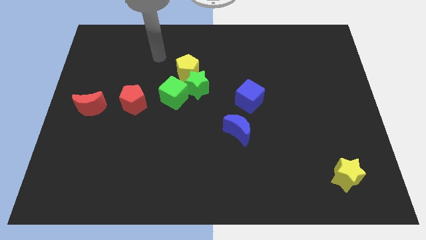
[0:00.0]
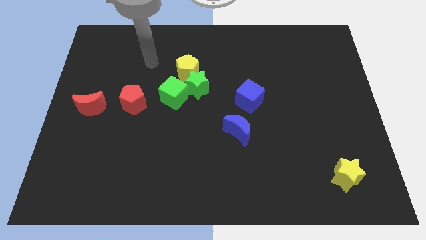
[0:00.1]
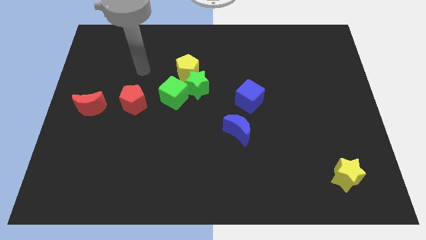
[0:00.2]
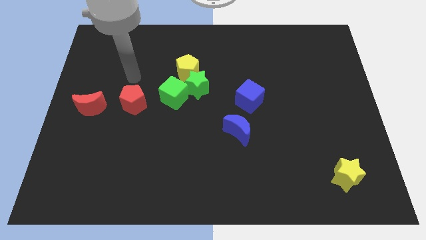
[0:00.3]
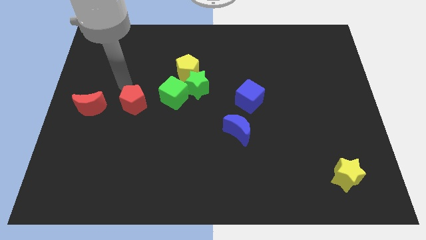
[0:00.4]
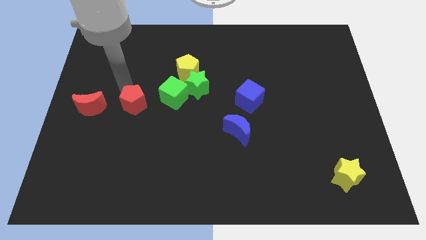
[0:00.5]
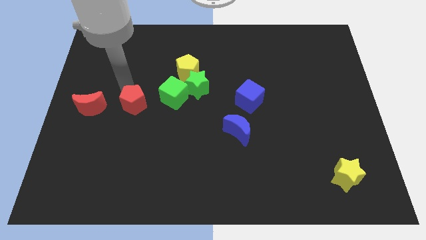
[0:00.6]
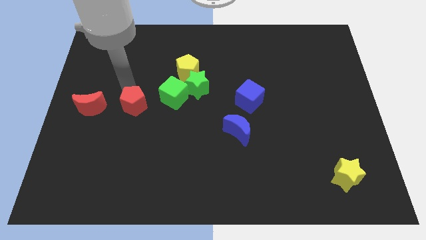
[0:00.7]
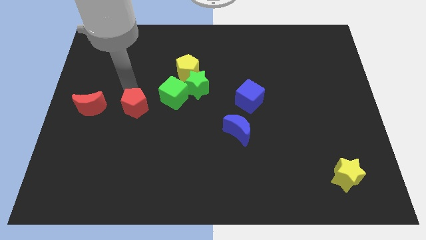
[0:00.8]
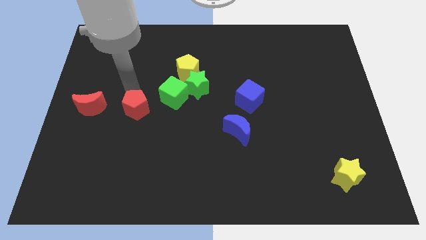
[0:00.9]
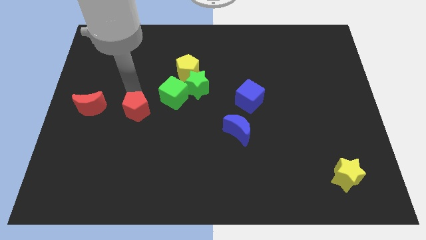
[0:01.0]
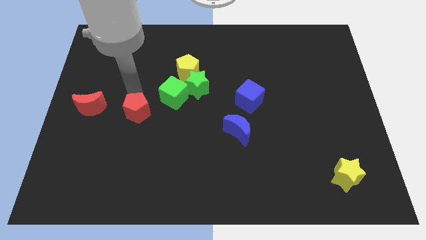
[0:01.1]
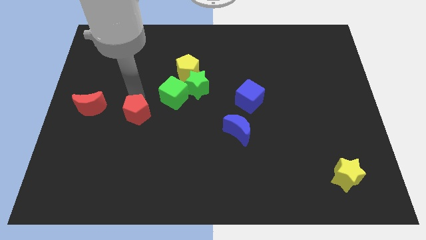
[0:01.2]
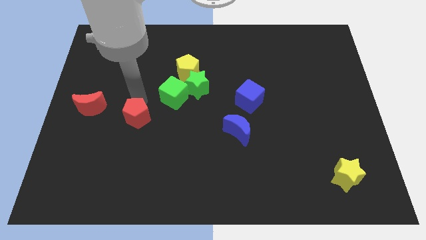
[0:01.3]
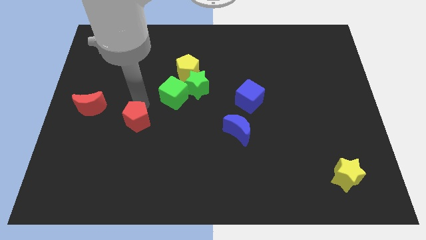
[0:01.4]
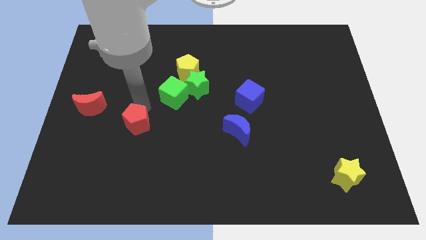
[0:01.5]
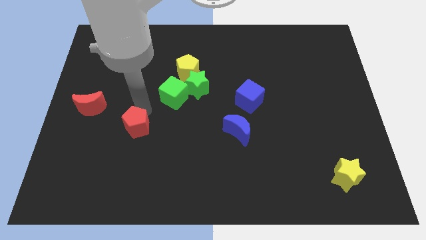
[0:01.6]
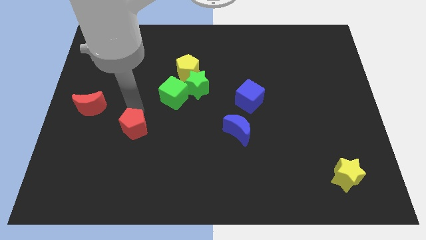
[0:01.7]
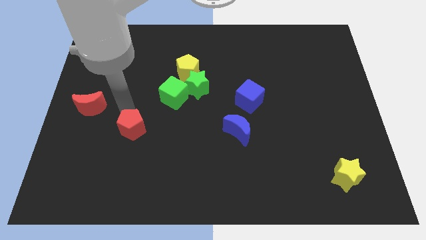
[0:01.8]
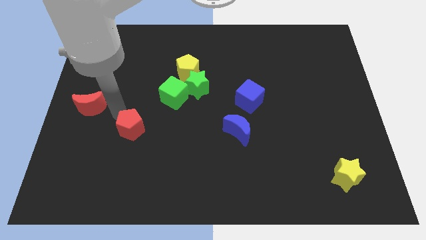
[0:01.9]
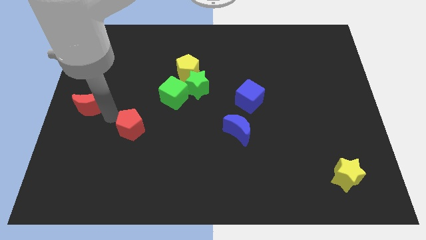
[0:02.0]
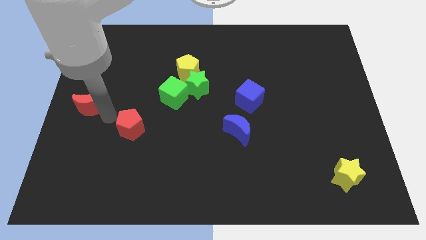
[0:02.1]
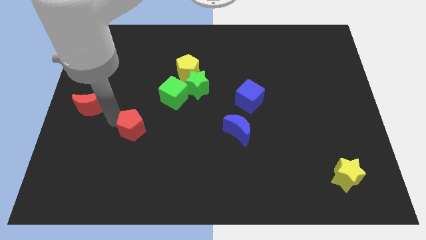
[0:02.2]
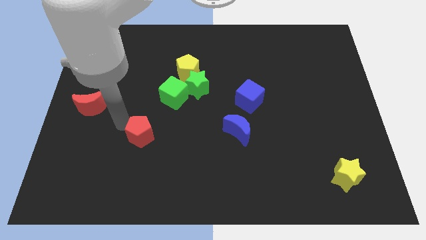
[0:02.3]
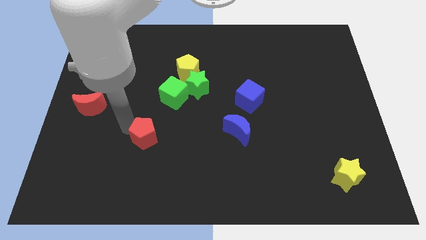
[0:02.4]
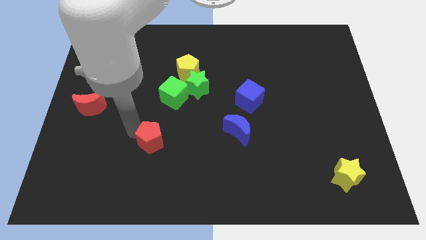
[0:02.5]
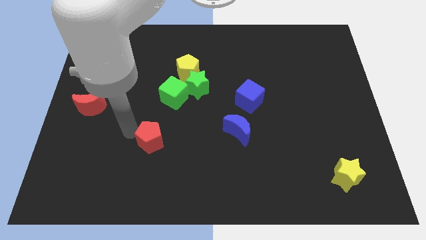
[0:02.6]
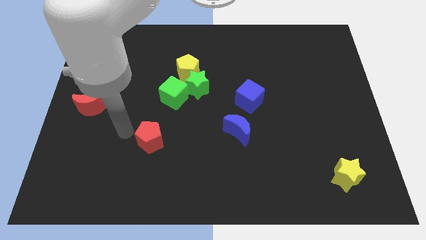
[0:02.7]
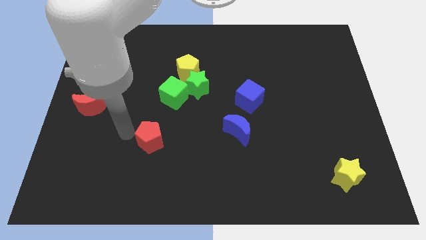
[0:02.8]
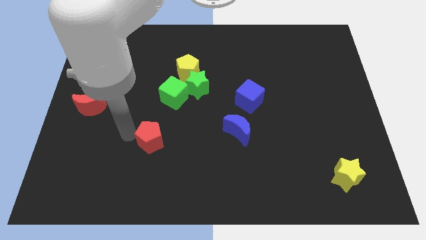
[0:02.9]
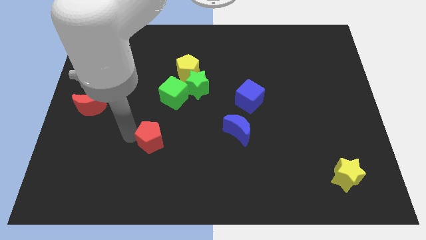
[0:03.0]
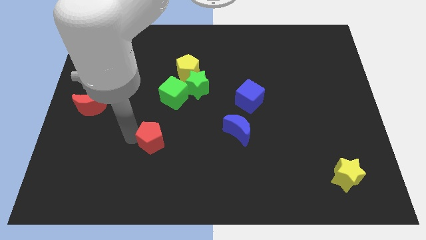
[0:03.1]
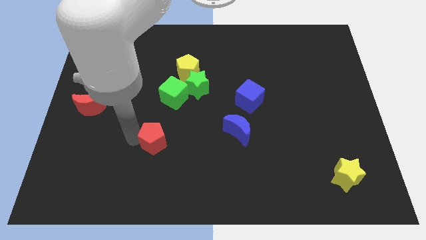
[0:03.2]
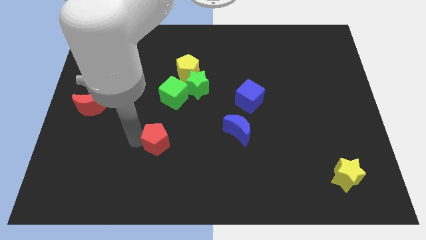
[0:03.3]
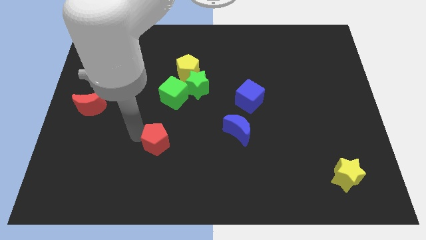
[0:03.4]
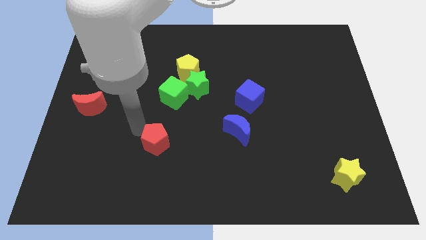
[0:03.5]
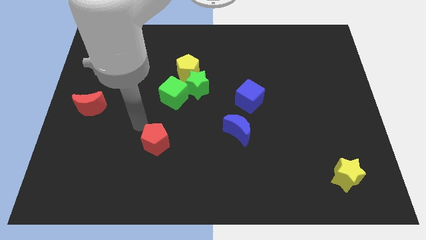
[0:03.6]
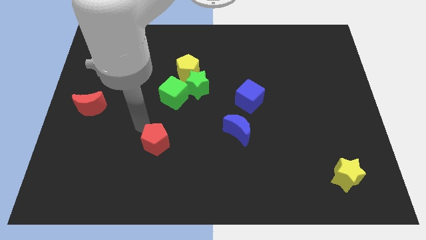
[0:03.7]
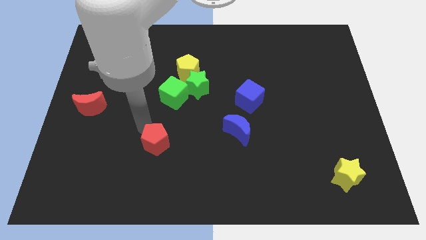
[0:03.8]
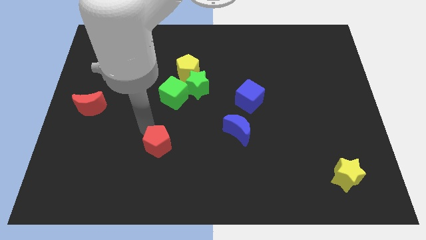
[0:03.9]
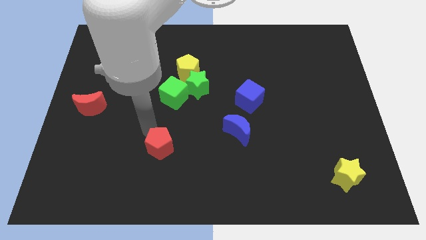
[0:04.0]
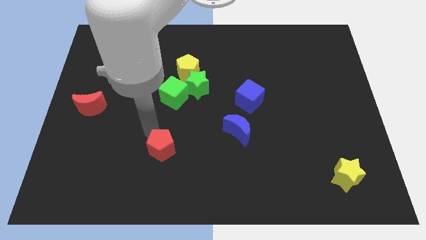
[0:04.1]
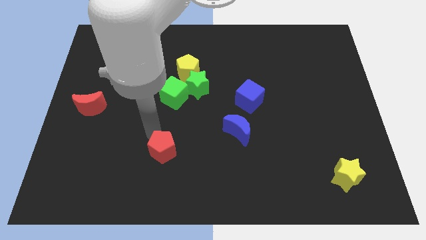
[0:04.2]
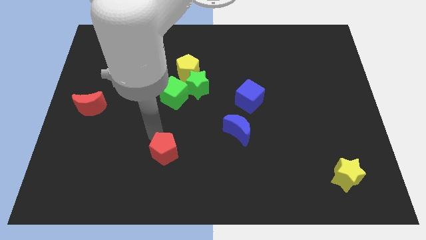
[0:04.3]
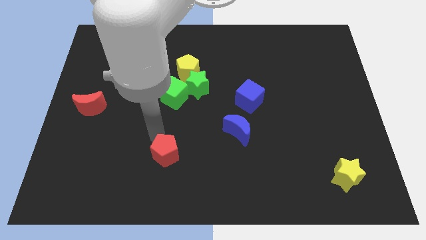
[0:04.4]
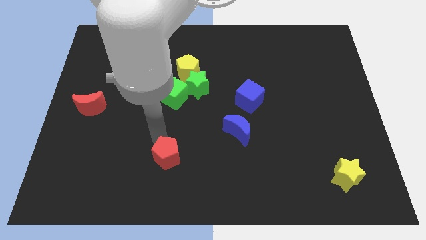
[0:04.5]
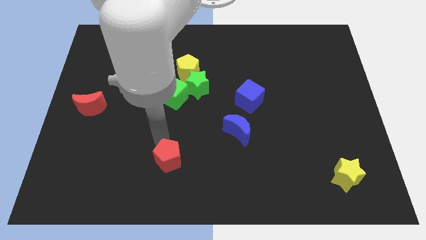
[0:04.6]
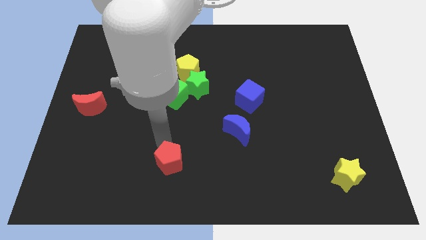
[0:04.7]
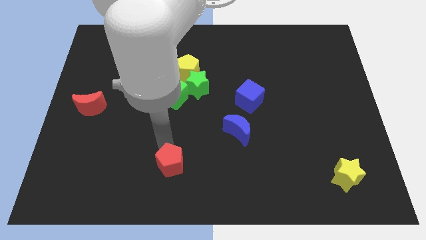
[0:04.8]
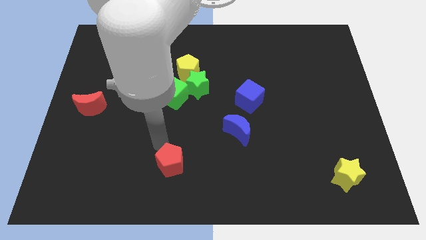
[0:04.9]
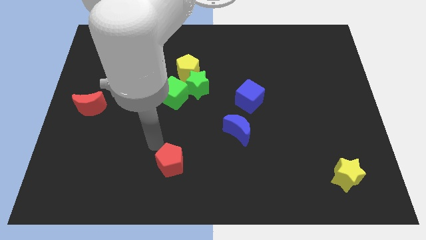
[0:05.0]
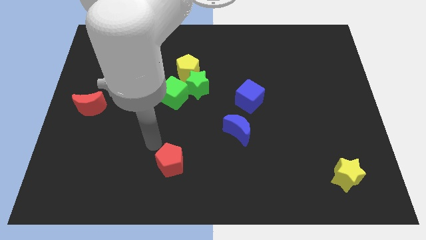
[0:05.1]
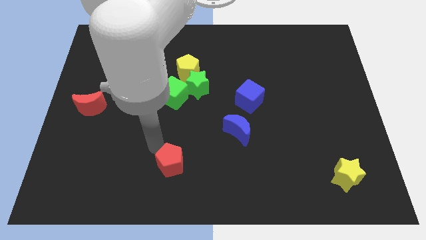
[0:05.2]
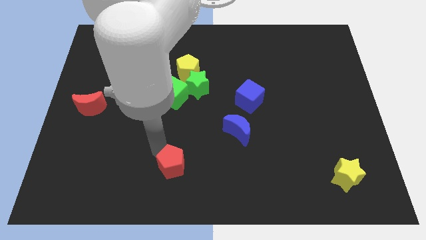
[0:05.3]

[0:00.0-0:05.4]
put the red pentagon to the bottom side

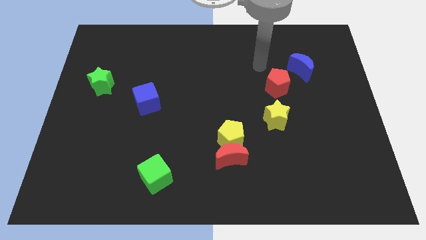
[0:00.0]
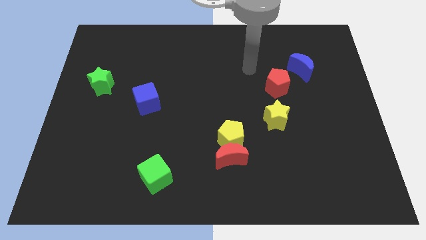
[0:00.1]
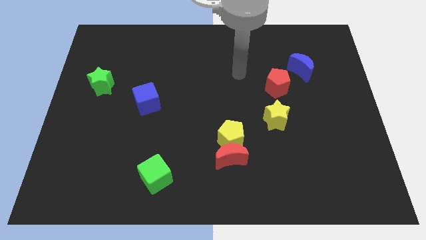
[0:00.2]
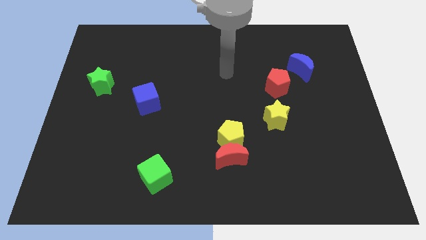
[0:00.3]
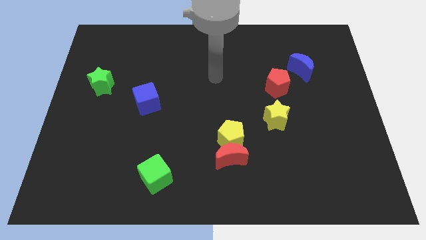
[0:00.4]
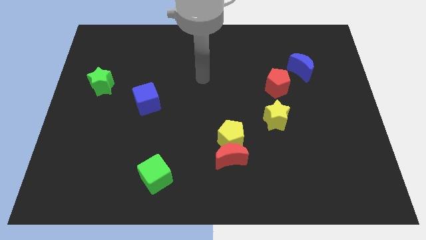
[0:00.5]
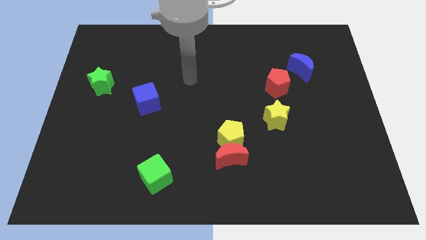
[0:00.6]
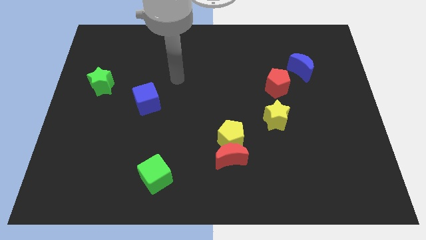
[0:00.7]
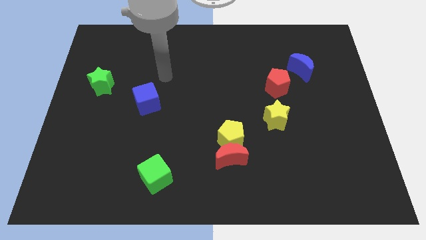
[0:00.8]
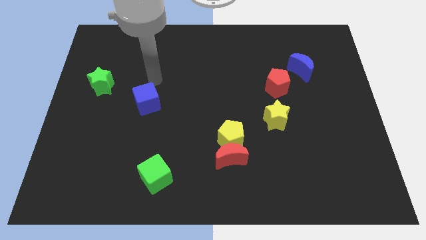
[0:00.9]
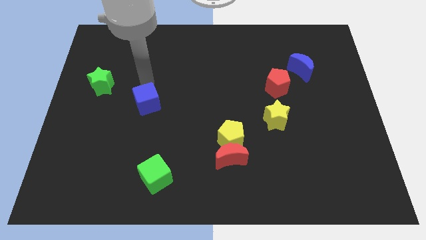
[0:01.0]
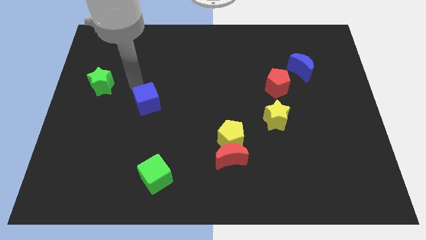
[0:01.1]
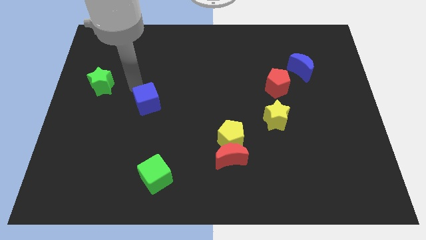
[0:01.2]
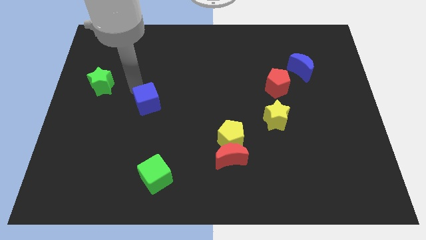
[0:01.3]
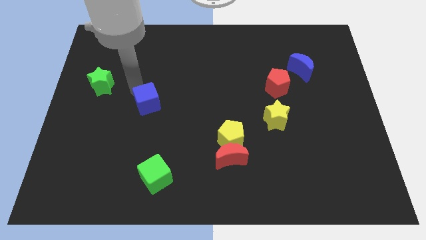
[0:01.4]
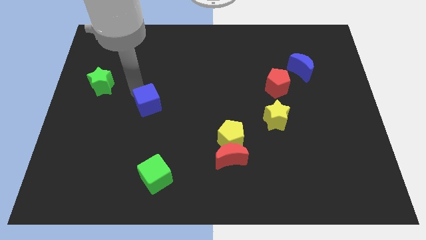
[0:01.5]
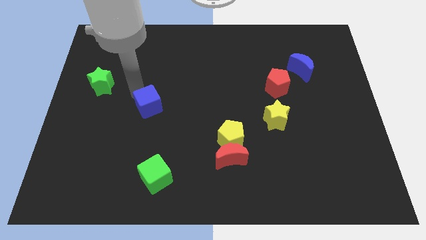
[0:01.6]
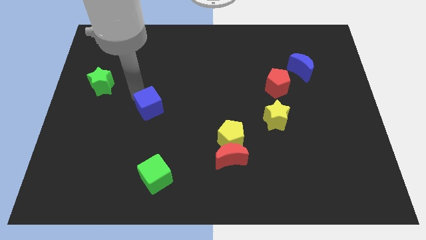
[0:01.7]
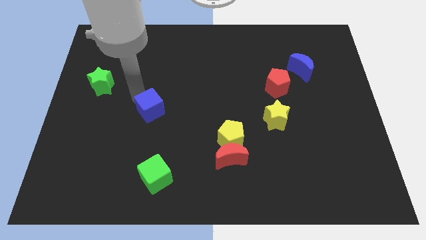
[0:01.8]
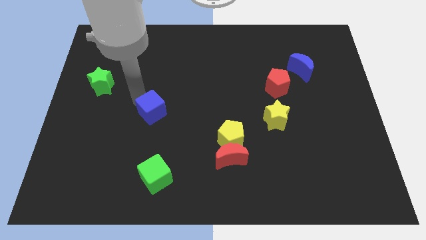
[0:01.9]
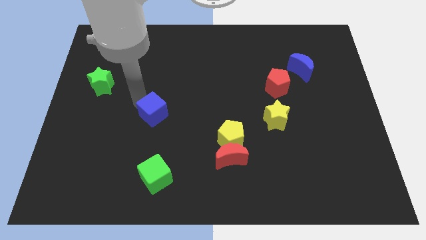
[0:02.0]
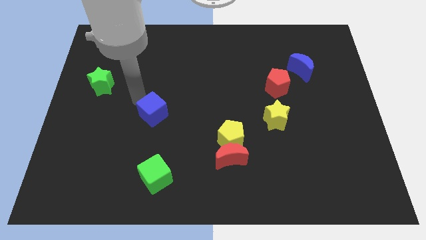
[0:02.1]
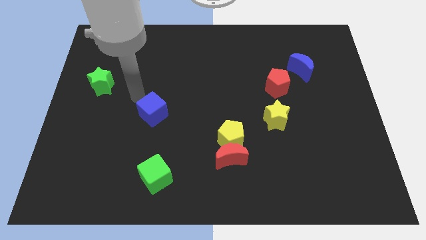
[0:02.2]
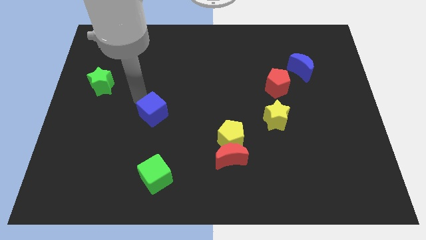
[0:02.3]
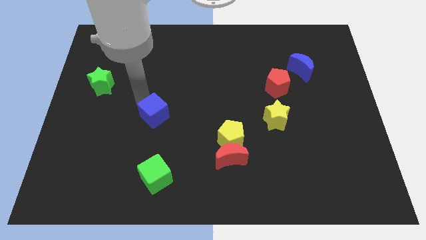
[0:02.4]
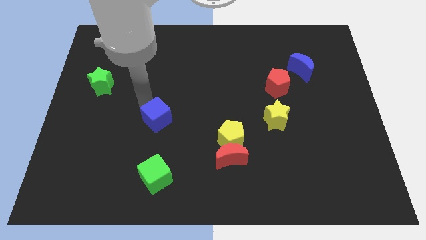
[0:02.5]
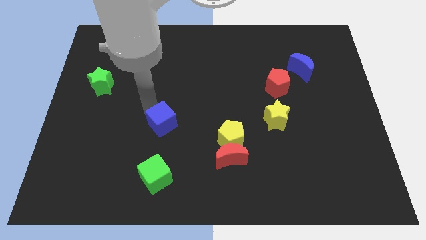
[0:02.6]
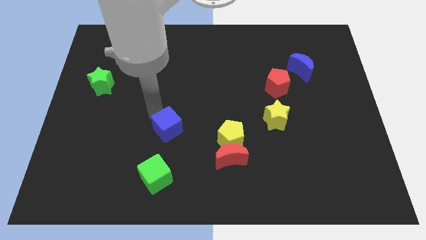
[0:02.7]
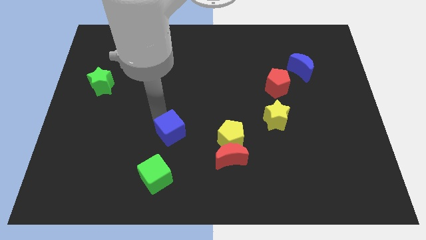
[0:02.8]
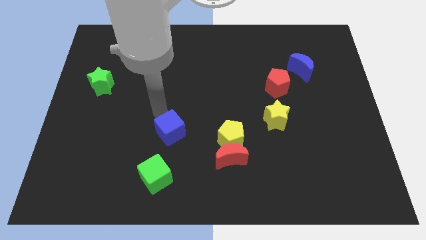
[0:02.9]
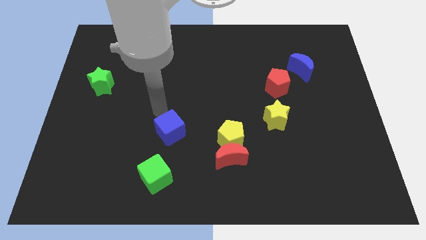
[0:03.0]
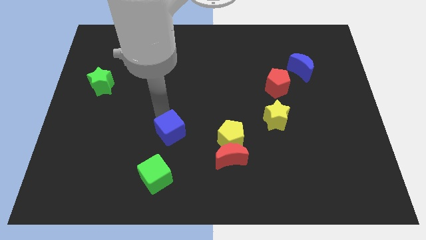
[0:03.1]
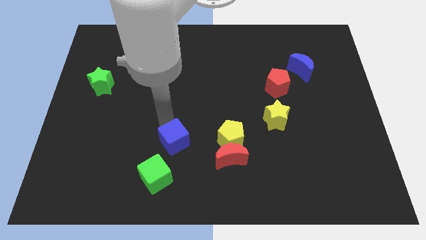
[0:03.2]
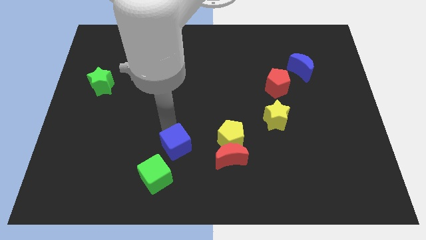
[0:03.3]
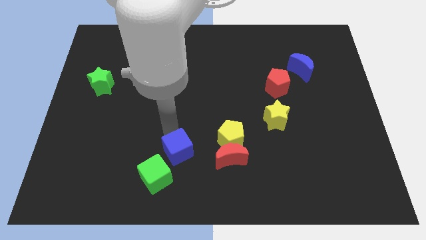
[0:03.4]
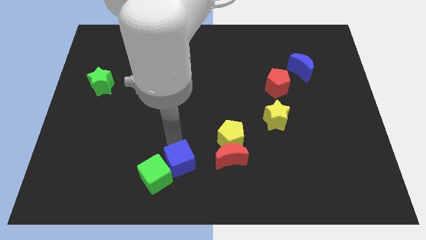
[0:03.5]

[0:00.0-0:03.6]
slide the blue cube to the bottom side
